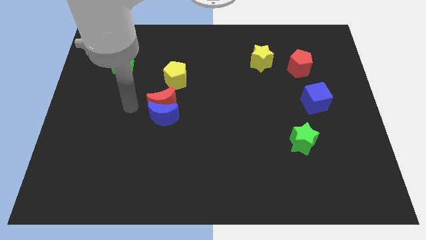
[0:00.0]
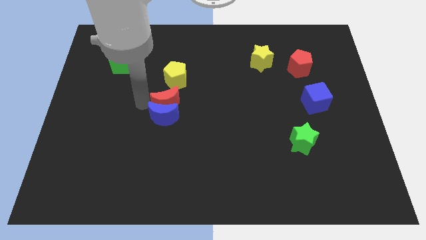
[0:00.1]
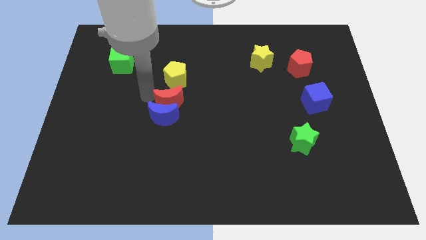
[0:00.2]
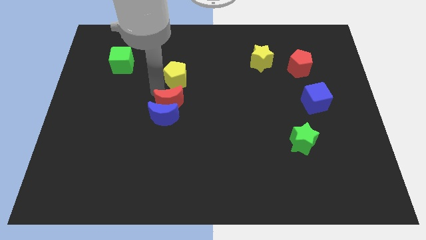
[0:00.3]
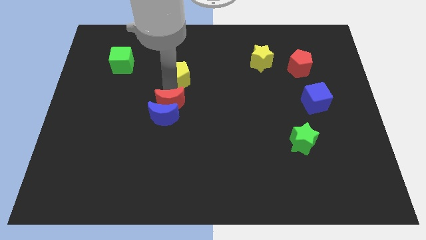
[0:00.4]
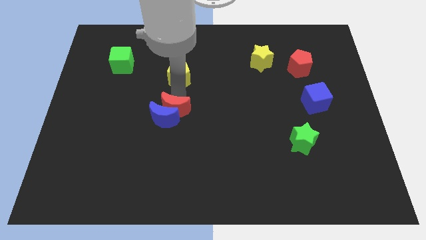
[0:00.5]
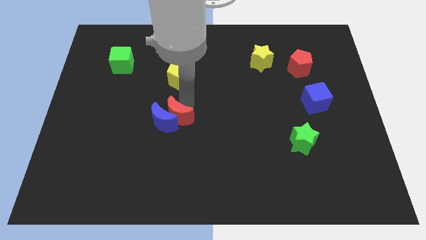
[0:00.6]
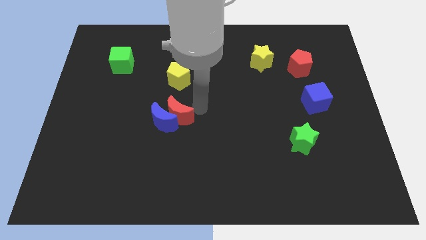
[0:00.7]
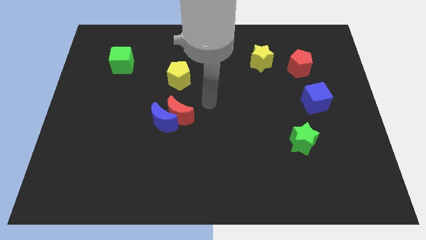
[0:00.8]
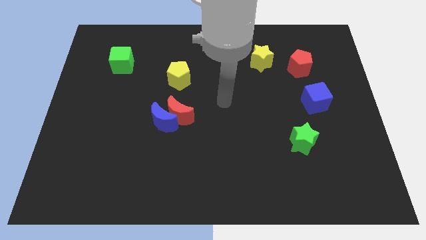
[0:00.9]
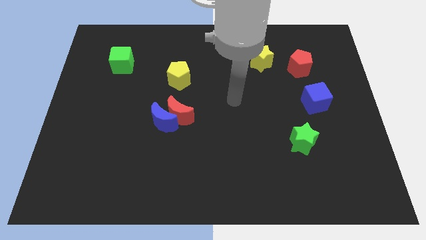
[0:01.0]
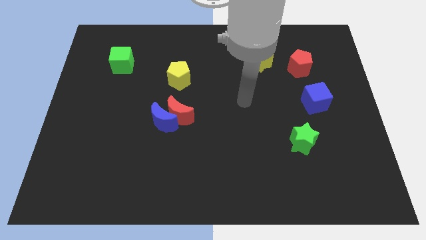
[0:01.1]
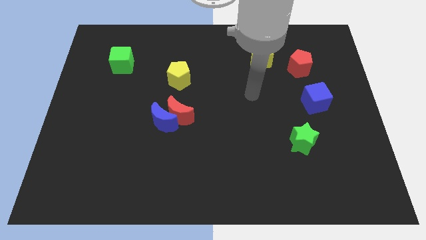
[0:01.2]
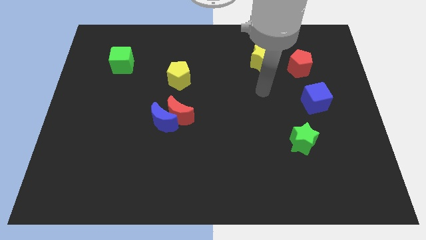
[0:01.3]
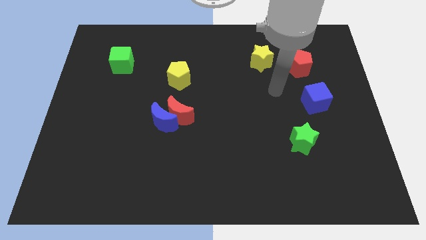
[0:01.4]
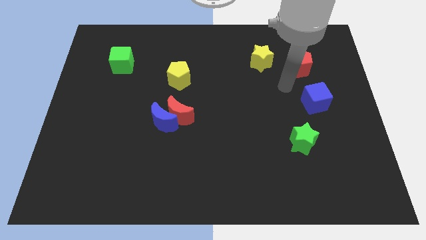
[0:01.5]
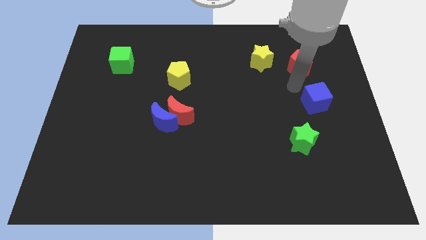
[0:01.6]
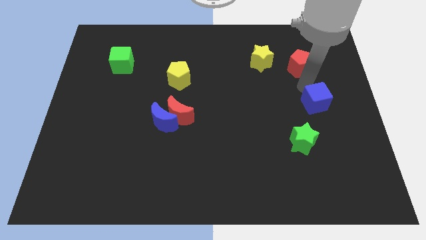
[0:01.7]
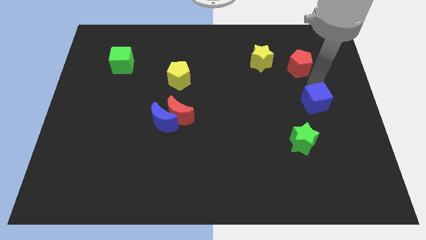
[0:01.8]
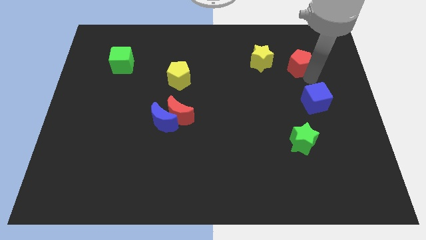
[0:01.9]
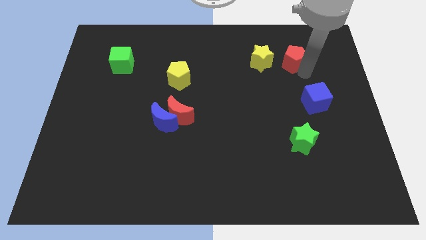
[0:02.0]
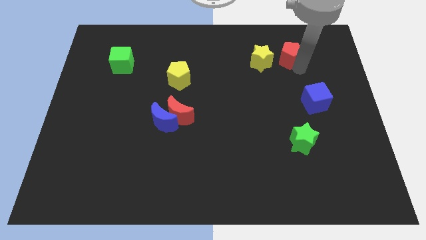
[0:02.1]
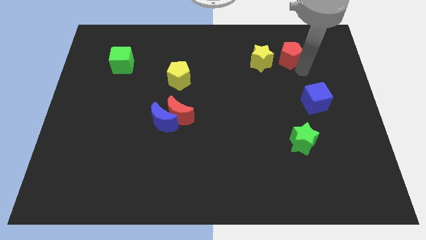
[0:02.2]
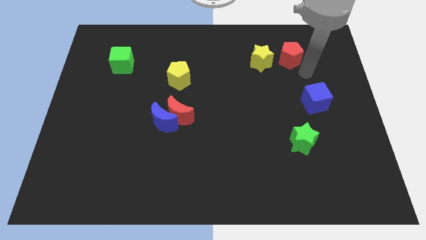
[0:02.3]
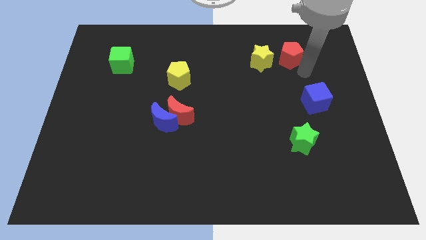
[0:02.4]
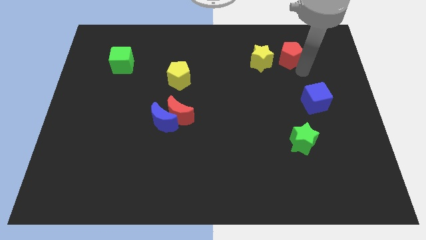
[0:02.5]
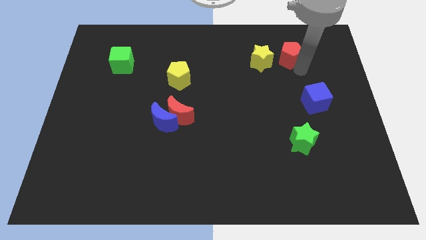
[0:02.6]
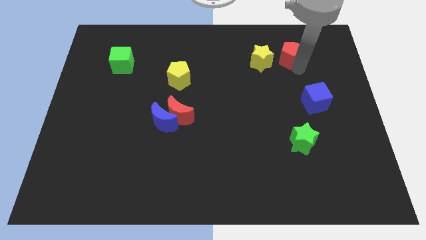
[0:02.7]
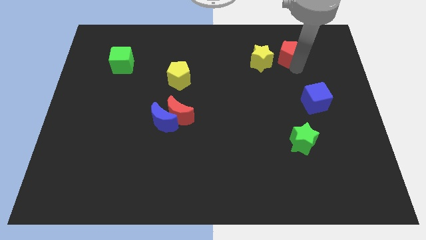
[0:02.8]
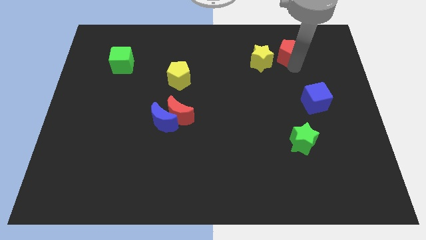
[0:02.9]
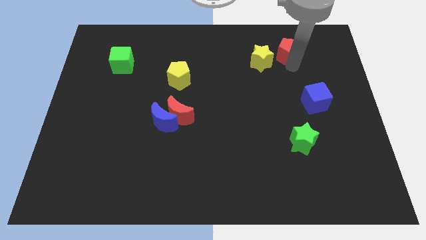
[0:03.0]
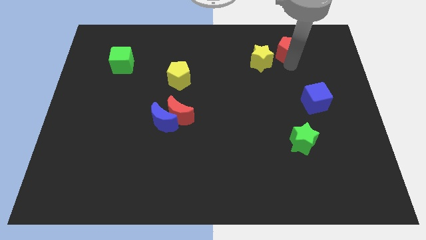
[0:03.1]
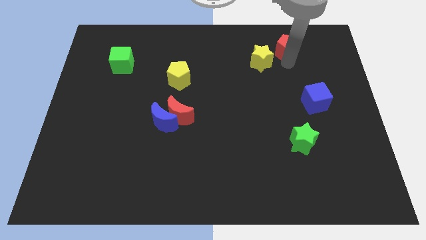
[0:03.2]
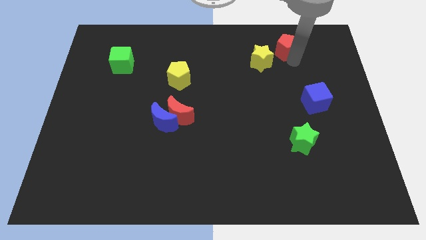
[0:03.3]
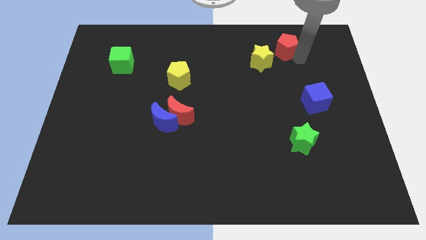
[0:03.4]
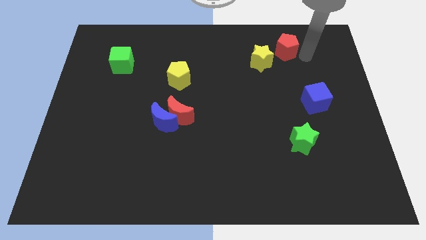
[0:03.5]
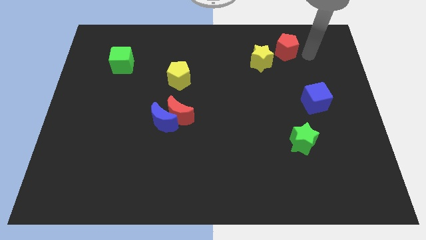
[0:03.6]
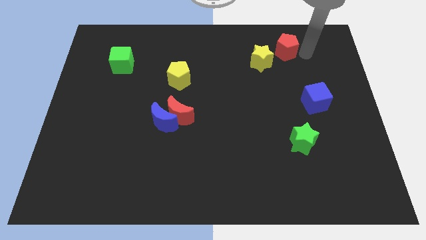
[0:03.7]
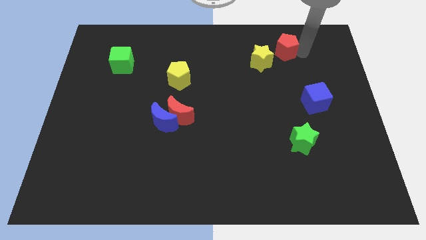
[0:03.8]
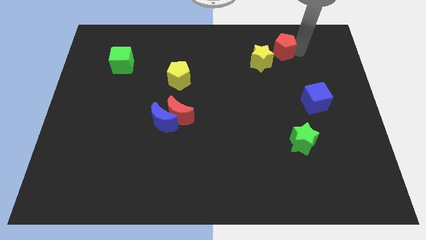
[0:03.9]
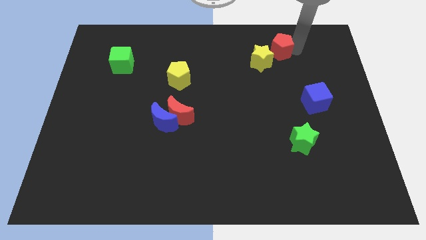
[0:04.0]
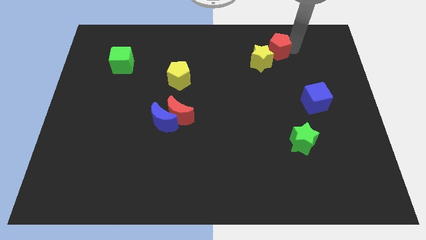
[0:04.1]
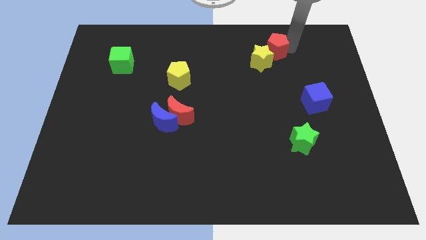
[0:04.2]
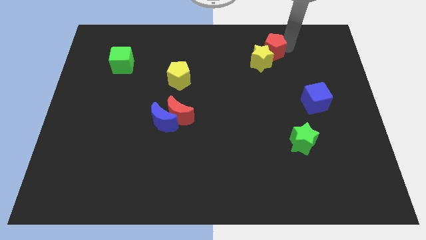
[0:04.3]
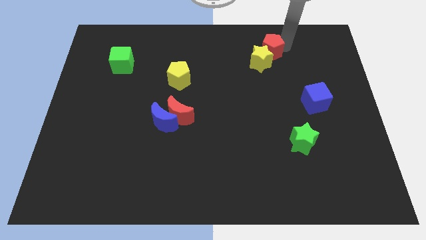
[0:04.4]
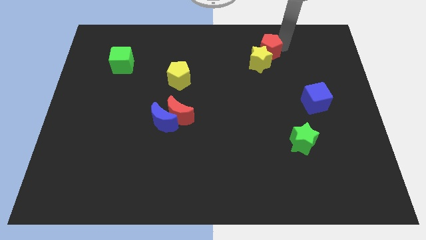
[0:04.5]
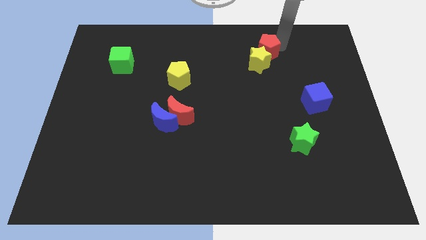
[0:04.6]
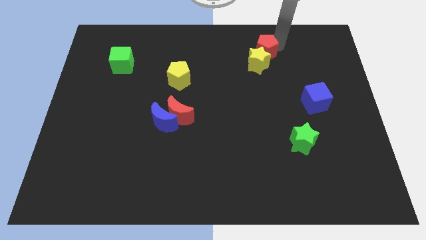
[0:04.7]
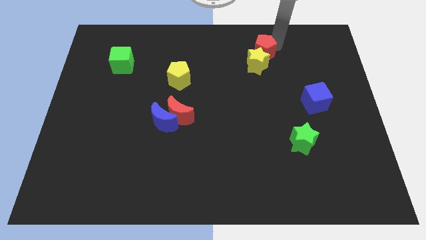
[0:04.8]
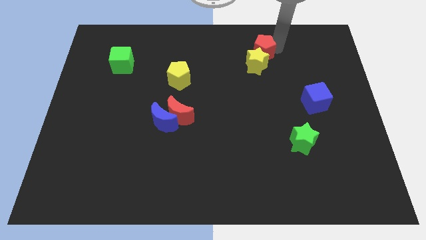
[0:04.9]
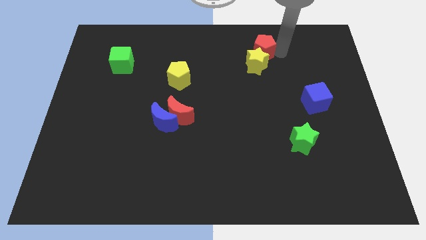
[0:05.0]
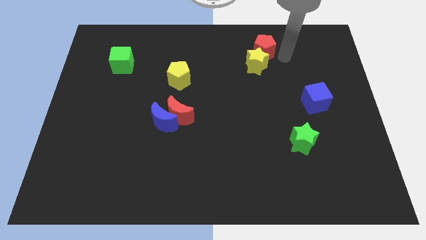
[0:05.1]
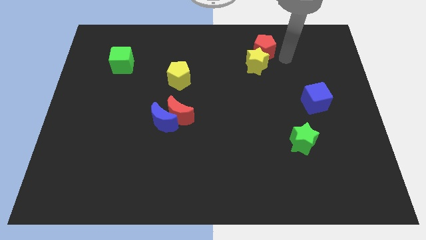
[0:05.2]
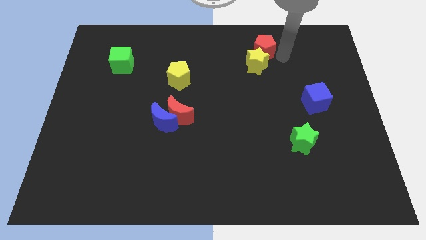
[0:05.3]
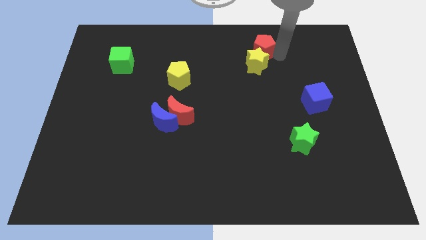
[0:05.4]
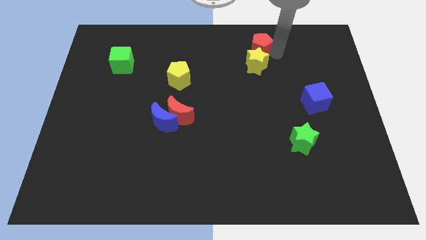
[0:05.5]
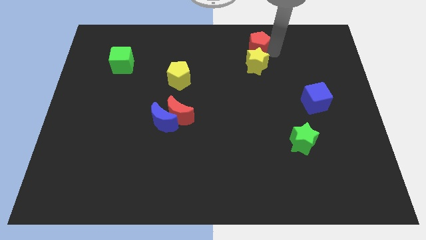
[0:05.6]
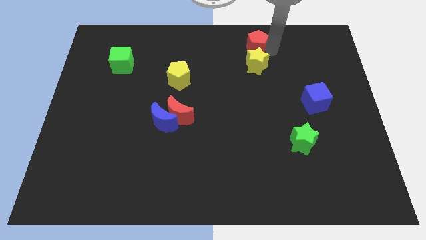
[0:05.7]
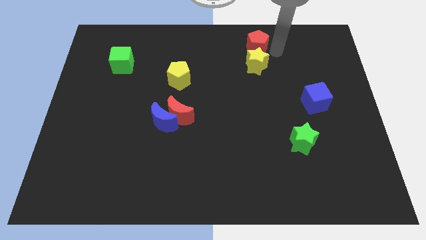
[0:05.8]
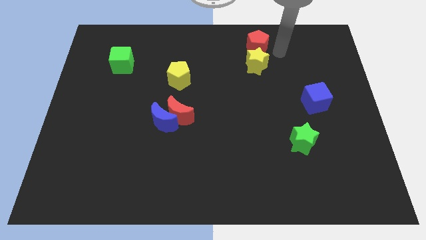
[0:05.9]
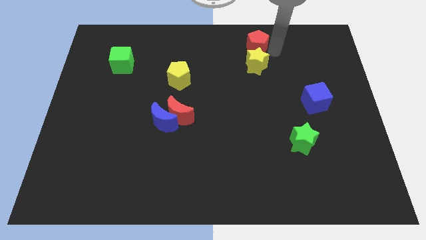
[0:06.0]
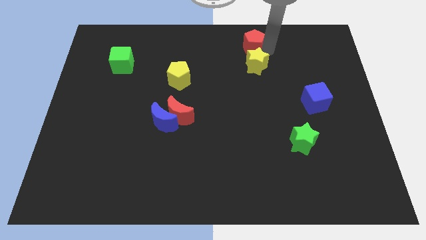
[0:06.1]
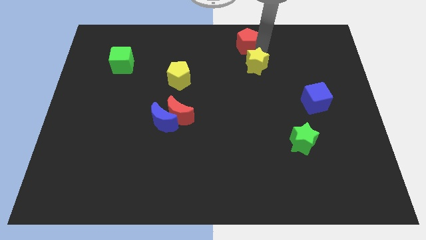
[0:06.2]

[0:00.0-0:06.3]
put the red pentagon to the top side
